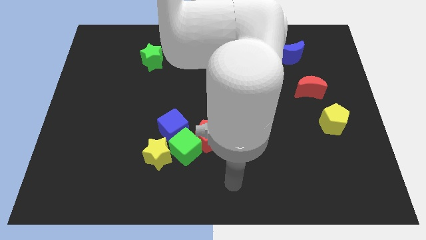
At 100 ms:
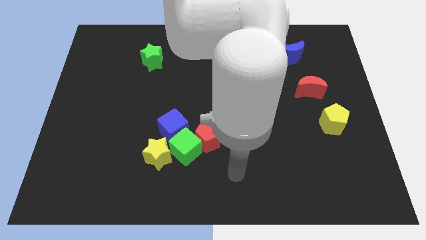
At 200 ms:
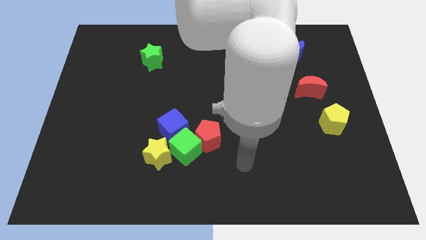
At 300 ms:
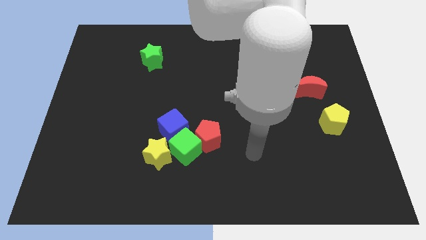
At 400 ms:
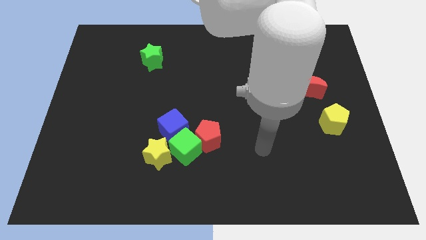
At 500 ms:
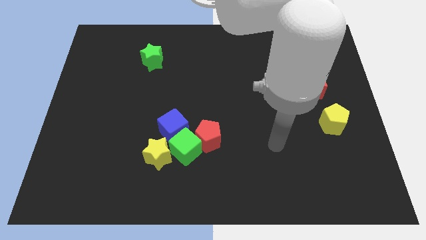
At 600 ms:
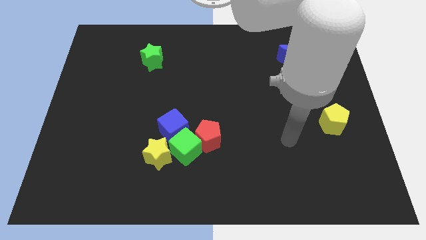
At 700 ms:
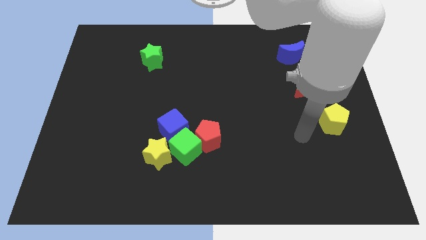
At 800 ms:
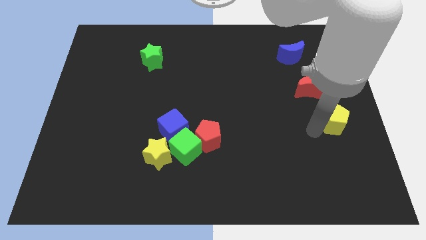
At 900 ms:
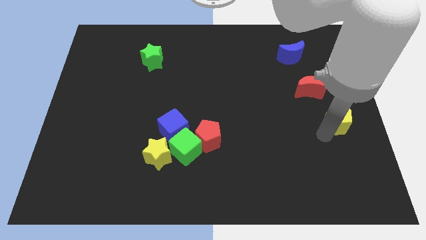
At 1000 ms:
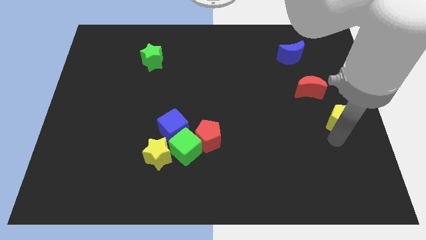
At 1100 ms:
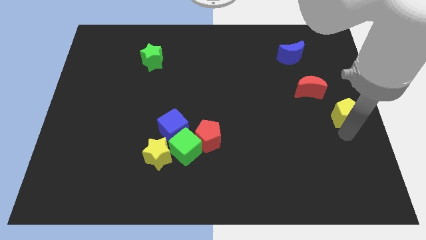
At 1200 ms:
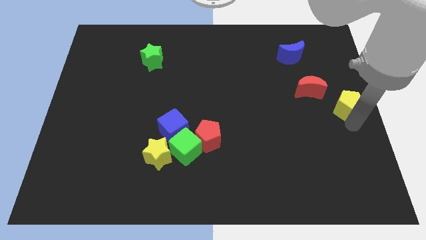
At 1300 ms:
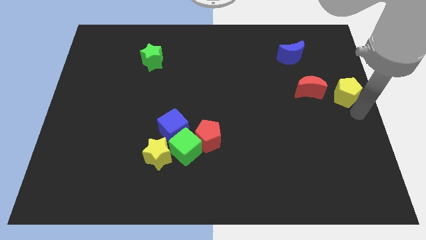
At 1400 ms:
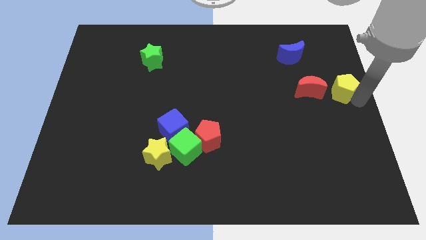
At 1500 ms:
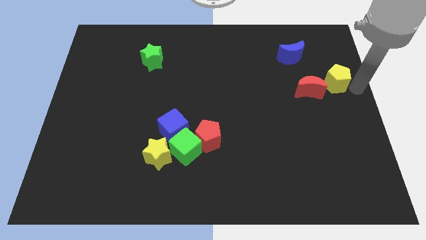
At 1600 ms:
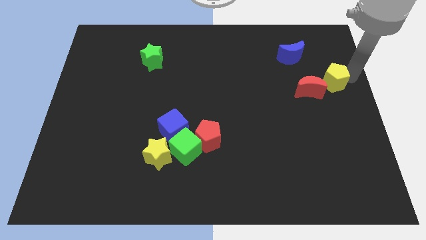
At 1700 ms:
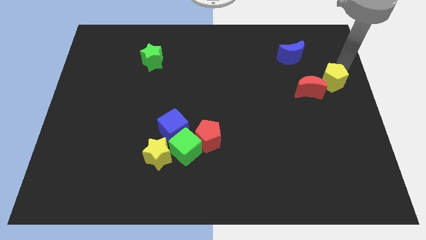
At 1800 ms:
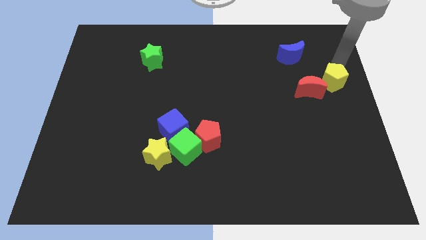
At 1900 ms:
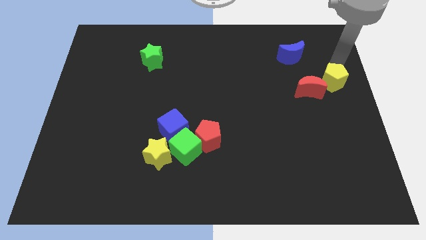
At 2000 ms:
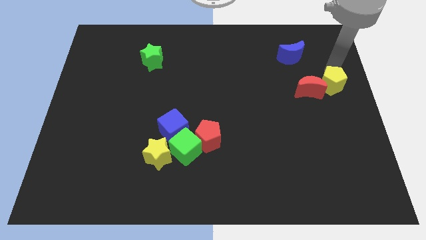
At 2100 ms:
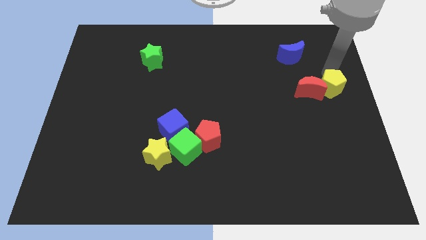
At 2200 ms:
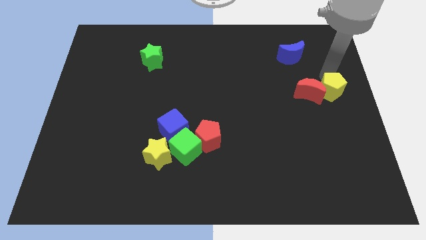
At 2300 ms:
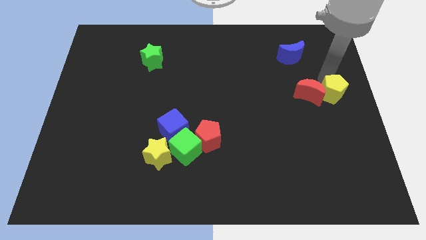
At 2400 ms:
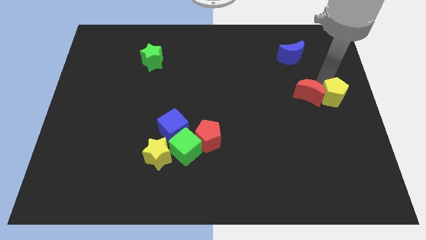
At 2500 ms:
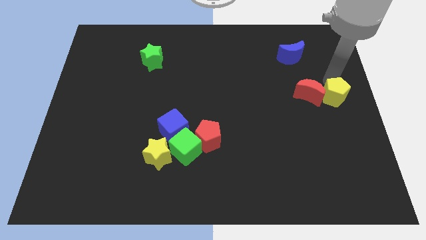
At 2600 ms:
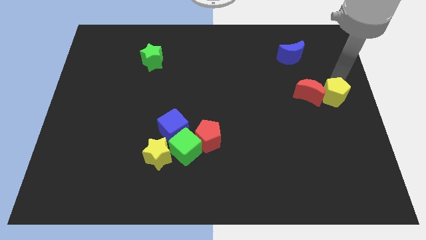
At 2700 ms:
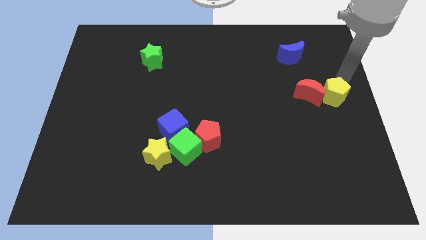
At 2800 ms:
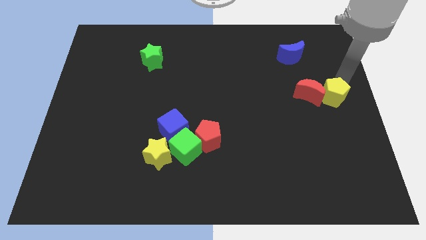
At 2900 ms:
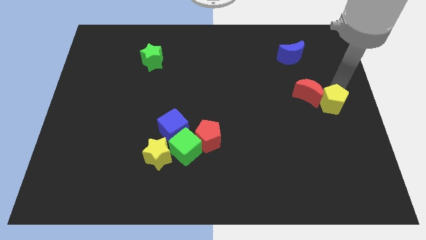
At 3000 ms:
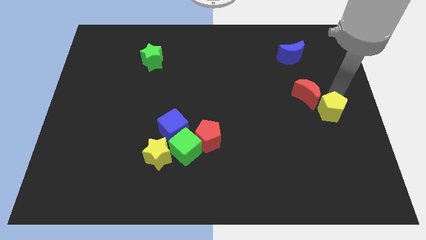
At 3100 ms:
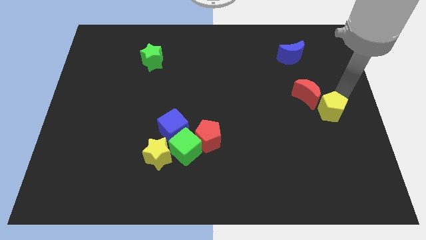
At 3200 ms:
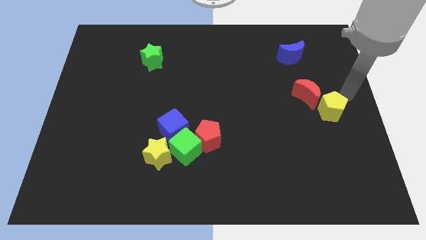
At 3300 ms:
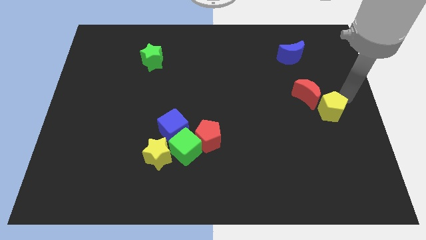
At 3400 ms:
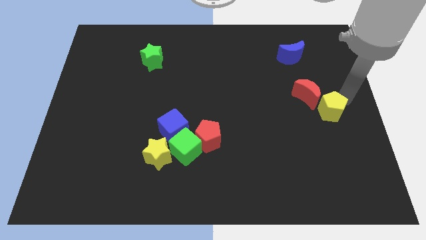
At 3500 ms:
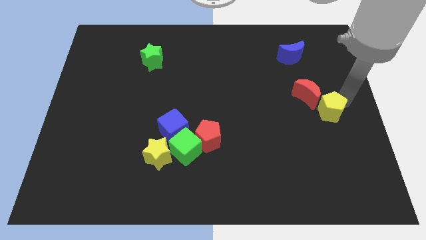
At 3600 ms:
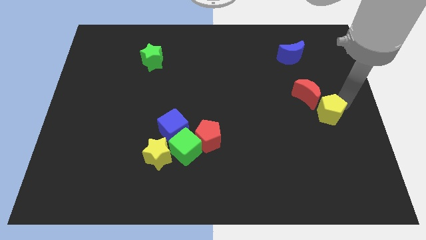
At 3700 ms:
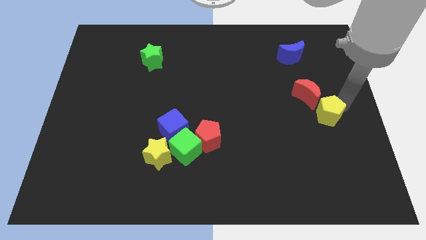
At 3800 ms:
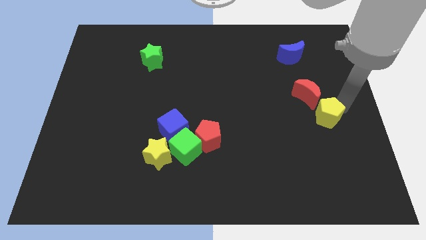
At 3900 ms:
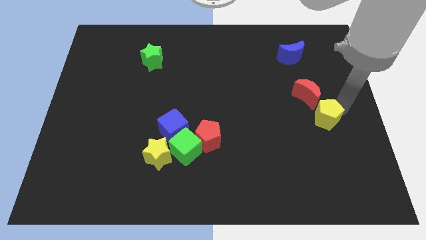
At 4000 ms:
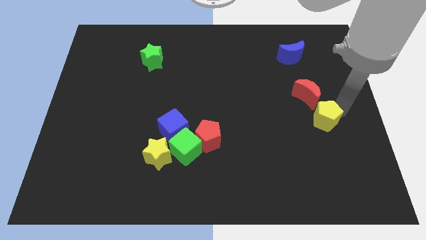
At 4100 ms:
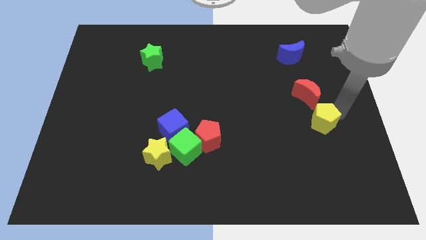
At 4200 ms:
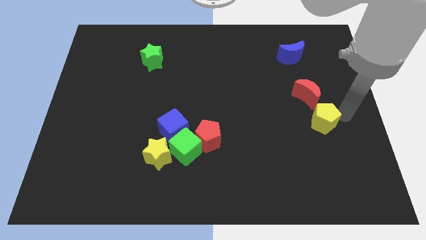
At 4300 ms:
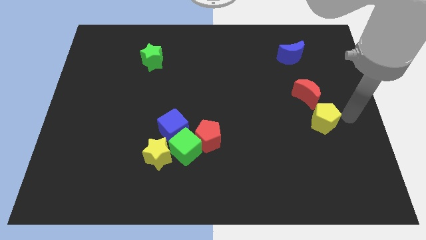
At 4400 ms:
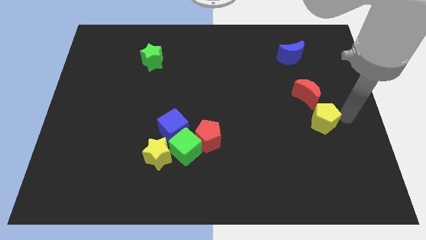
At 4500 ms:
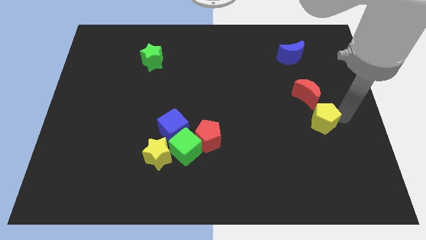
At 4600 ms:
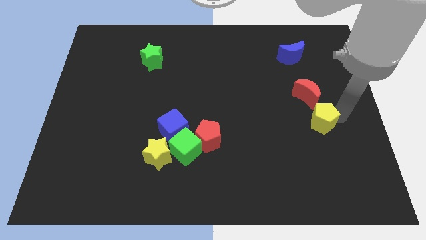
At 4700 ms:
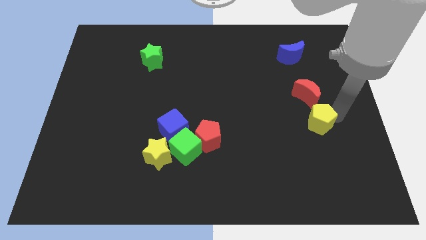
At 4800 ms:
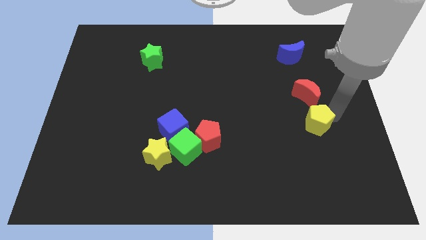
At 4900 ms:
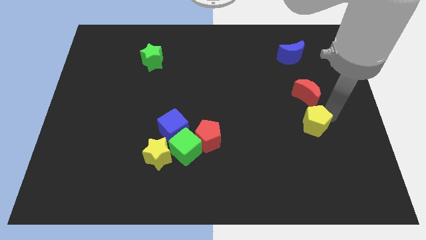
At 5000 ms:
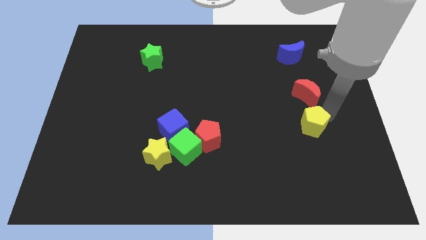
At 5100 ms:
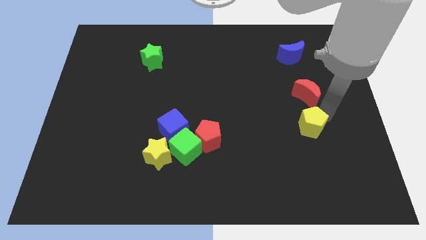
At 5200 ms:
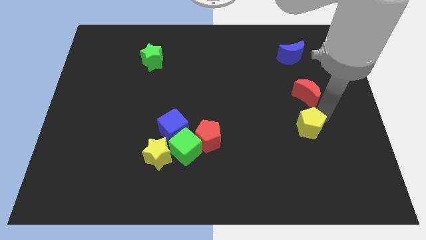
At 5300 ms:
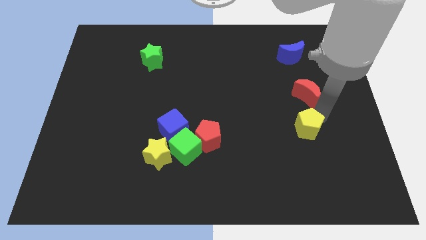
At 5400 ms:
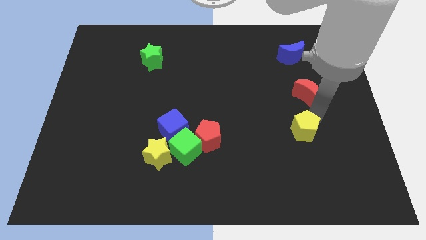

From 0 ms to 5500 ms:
slide the yellow pentagon a little to the left

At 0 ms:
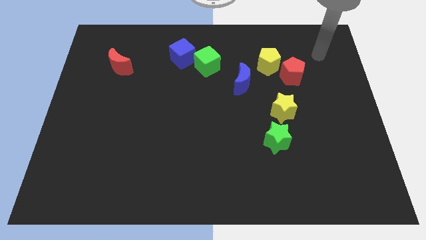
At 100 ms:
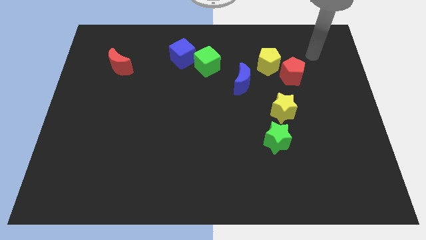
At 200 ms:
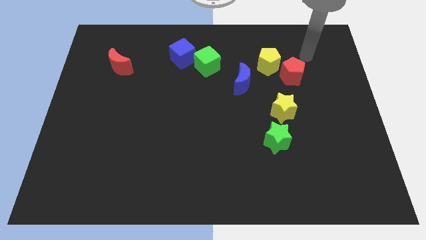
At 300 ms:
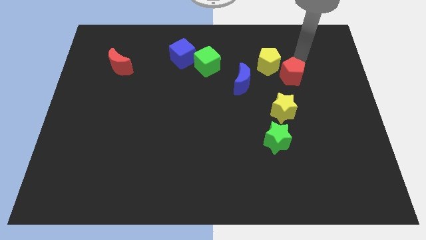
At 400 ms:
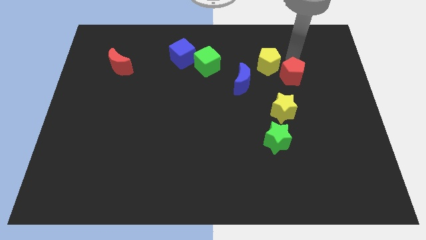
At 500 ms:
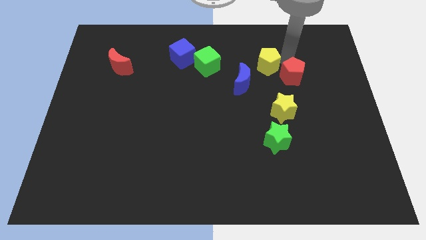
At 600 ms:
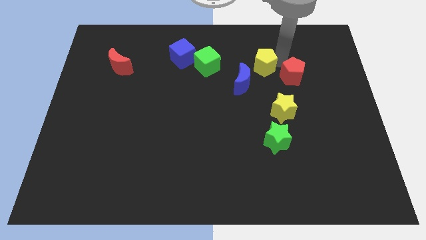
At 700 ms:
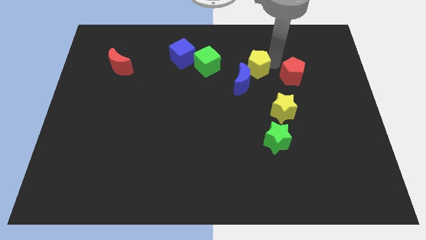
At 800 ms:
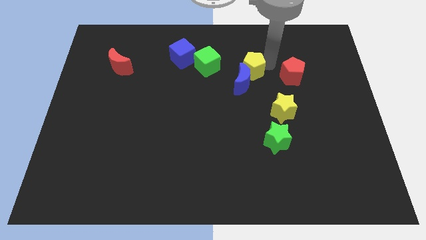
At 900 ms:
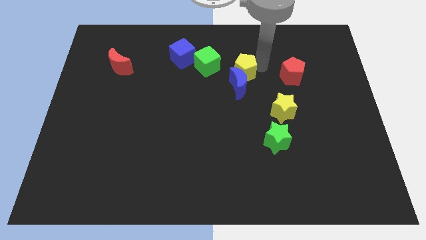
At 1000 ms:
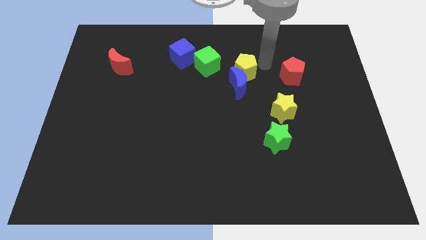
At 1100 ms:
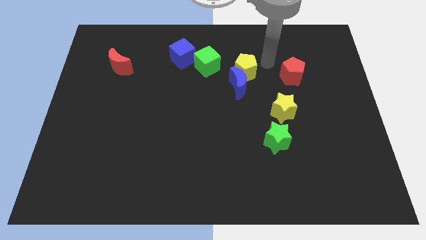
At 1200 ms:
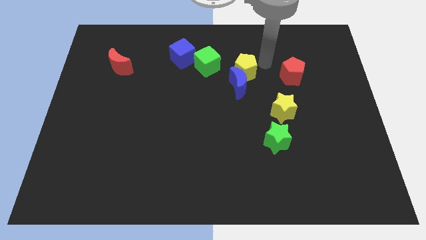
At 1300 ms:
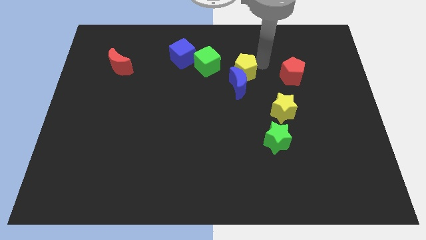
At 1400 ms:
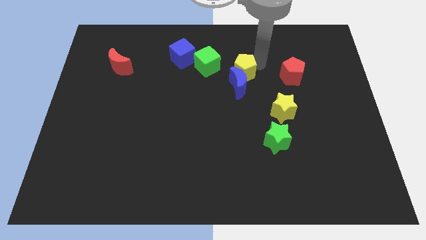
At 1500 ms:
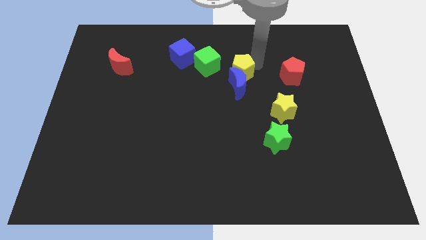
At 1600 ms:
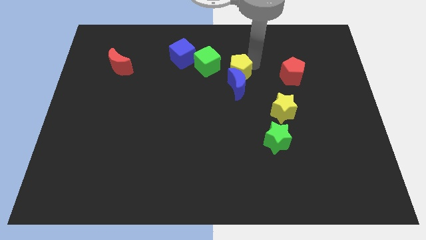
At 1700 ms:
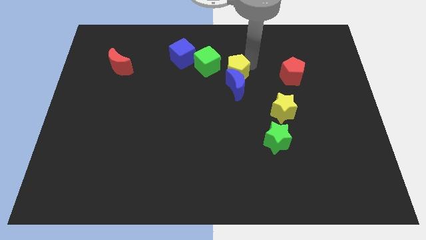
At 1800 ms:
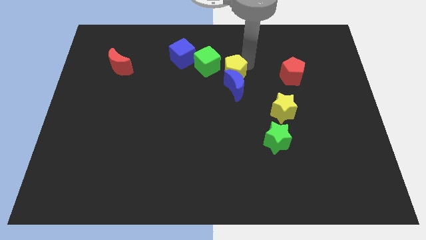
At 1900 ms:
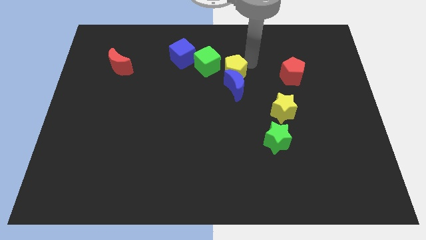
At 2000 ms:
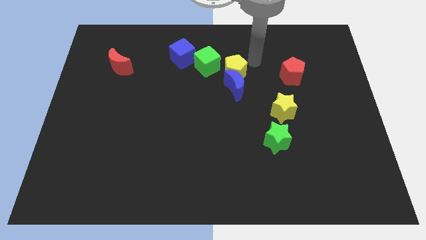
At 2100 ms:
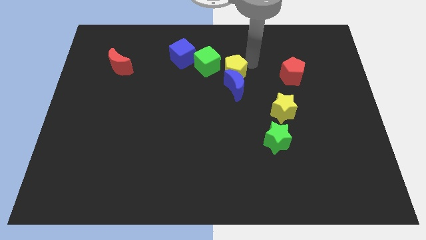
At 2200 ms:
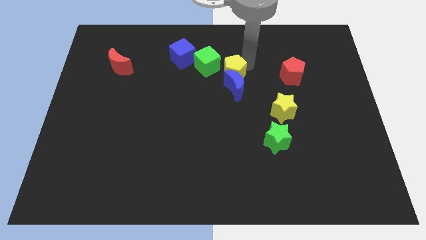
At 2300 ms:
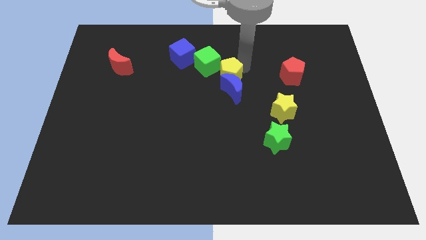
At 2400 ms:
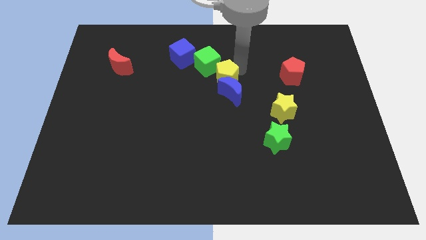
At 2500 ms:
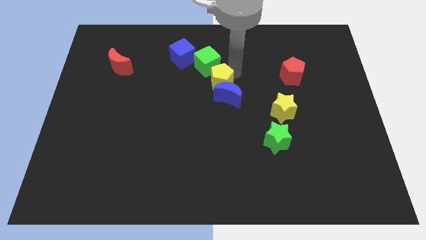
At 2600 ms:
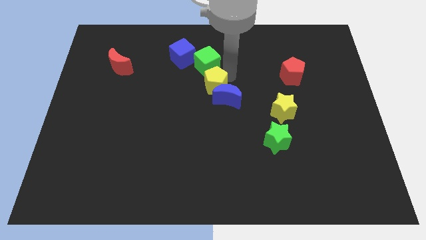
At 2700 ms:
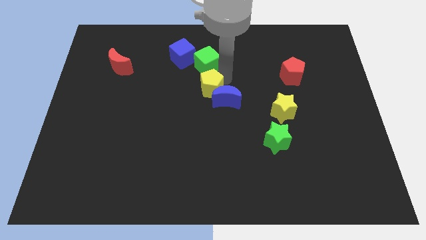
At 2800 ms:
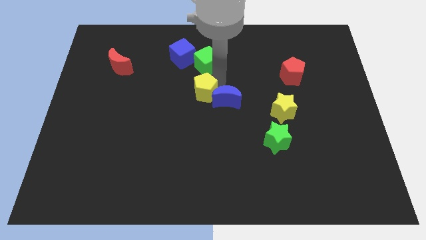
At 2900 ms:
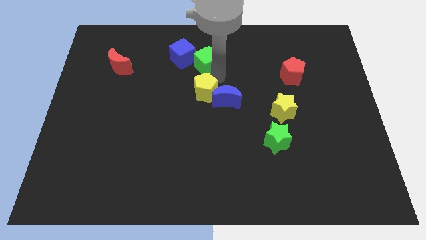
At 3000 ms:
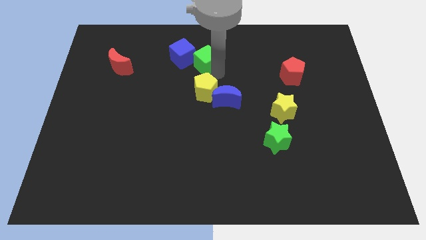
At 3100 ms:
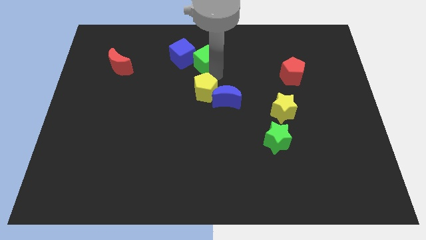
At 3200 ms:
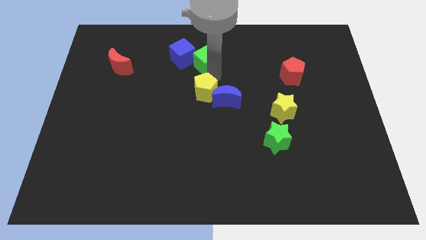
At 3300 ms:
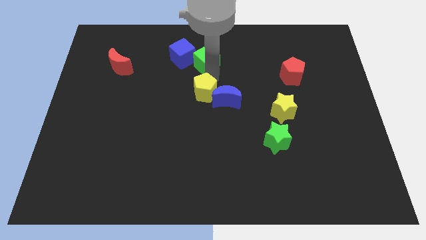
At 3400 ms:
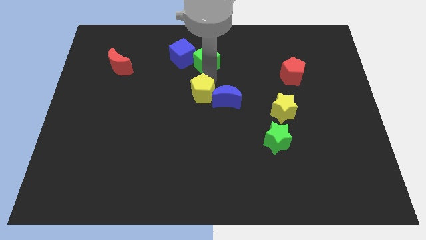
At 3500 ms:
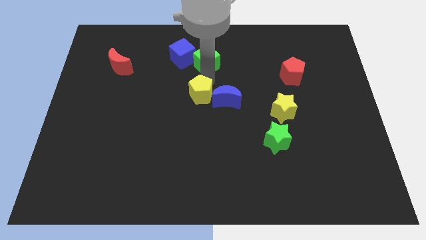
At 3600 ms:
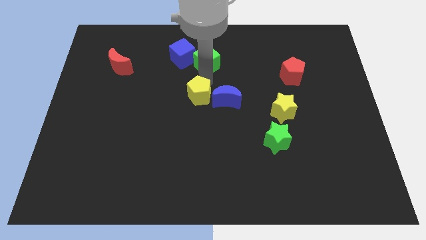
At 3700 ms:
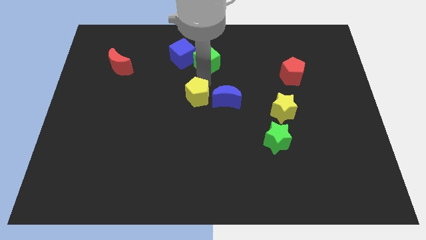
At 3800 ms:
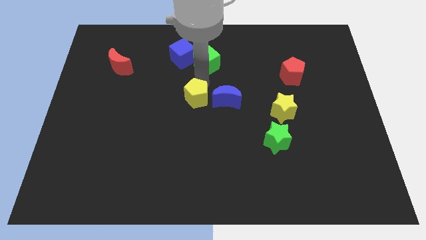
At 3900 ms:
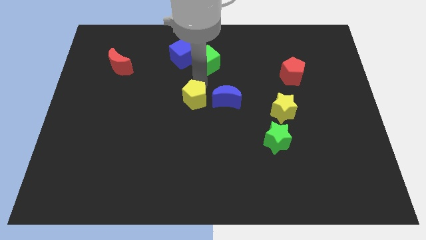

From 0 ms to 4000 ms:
move the yellow pentagon down and then left
